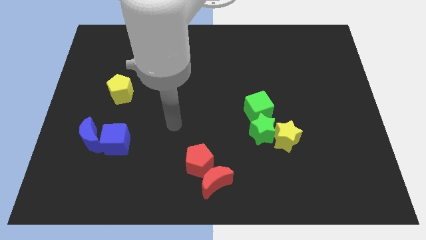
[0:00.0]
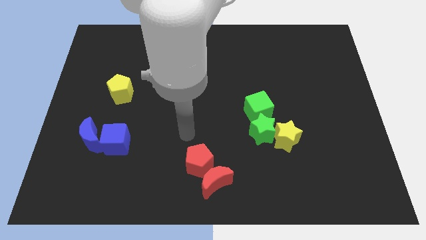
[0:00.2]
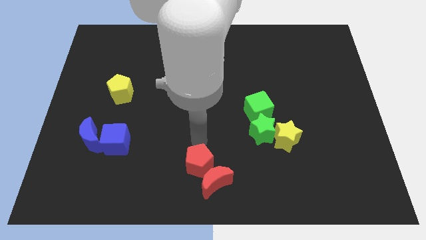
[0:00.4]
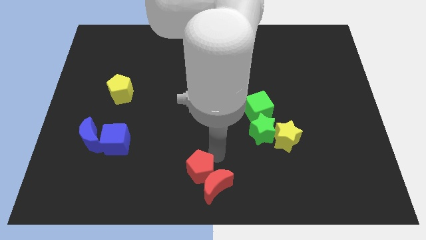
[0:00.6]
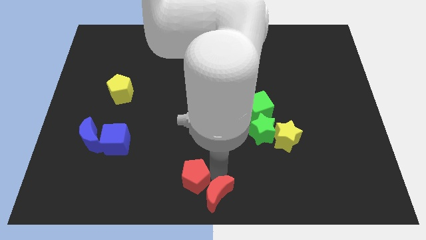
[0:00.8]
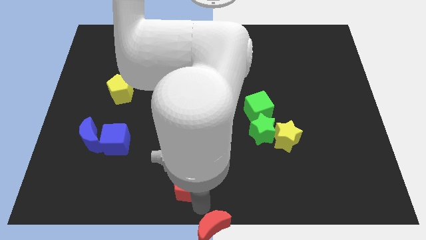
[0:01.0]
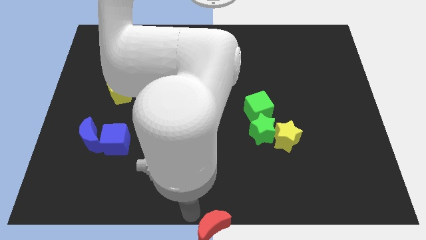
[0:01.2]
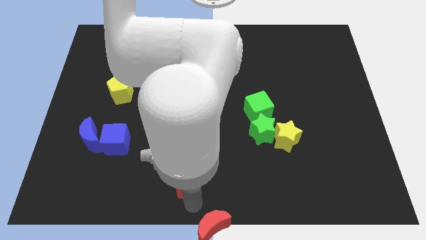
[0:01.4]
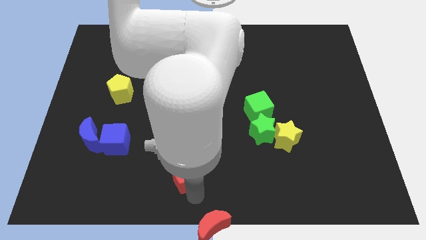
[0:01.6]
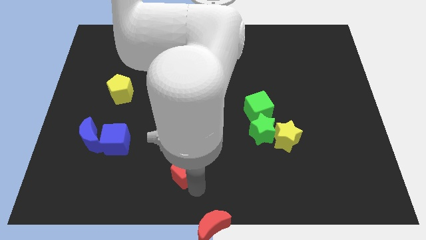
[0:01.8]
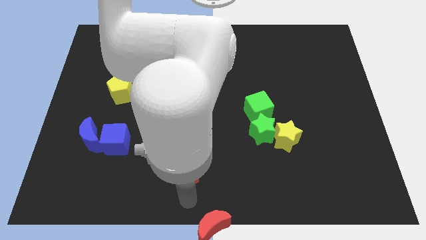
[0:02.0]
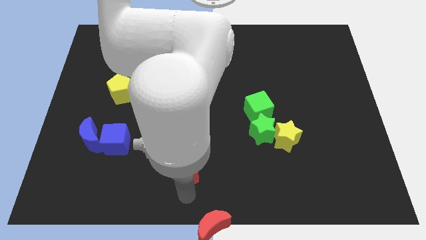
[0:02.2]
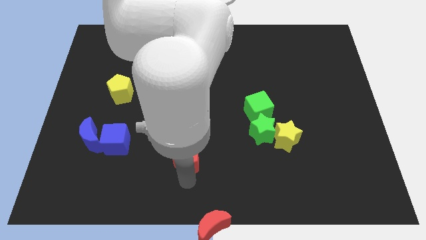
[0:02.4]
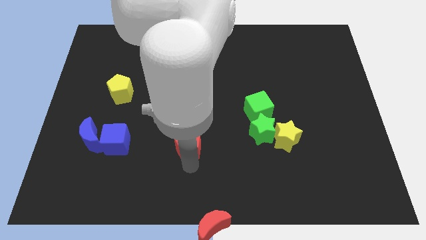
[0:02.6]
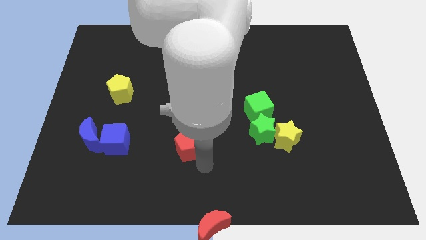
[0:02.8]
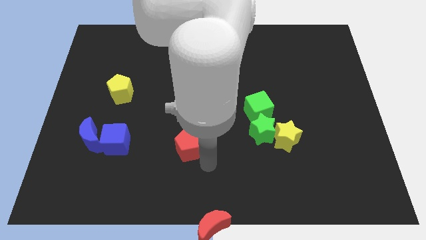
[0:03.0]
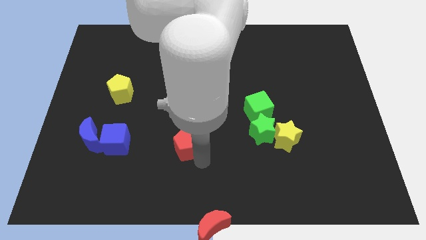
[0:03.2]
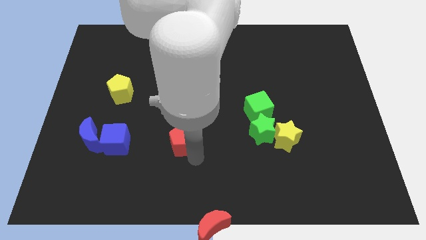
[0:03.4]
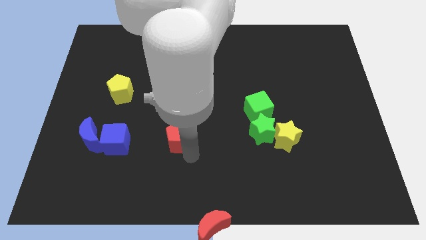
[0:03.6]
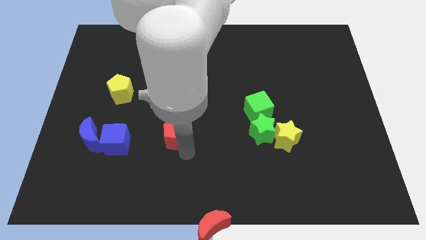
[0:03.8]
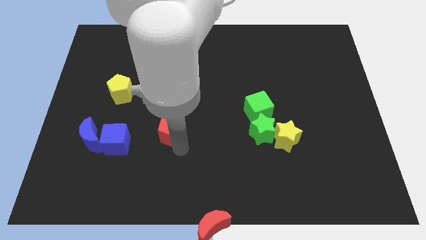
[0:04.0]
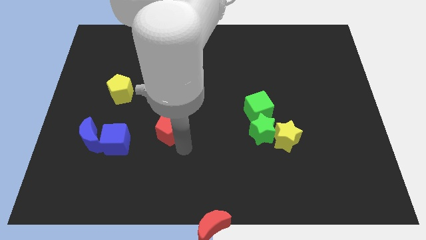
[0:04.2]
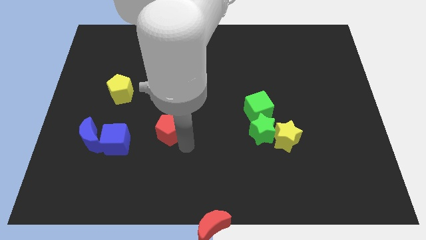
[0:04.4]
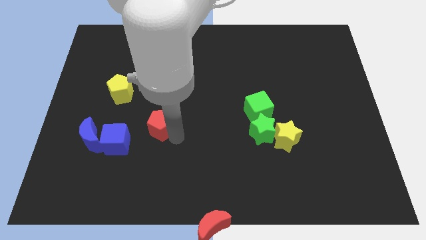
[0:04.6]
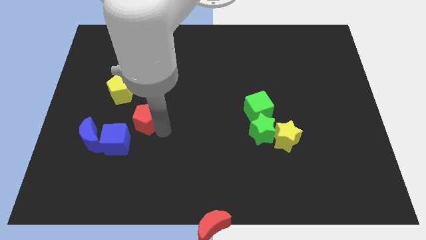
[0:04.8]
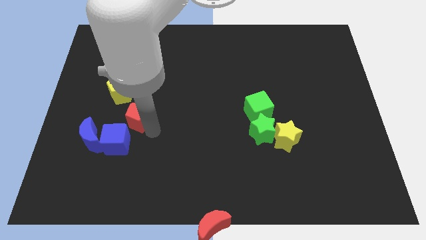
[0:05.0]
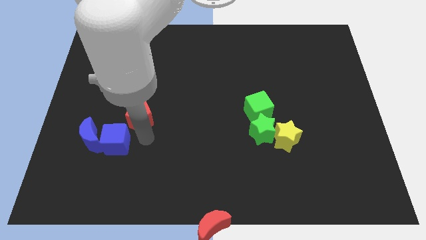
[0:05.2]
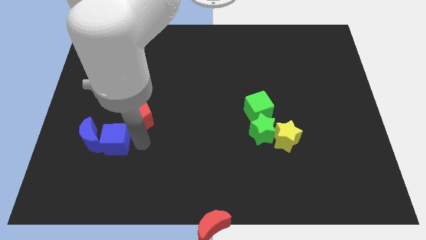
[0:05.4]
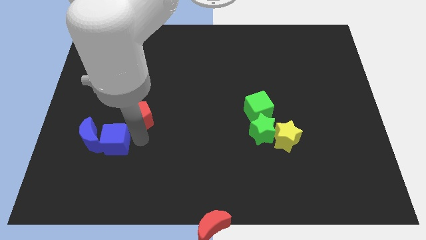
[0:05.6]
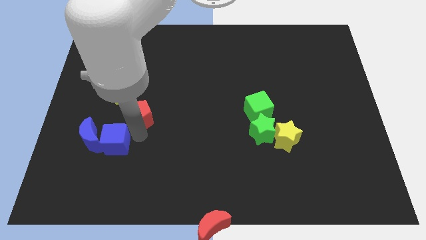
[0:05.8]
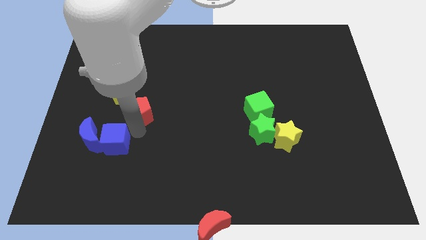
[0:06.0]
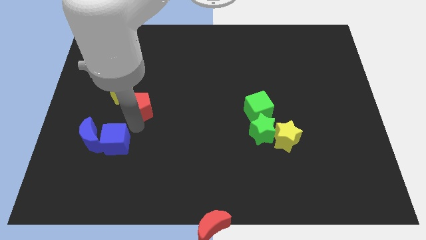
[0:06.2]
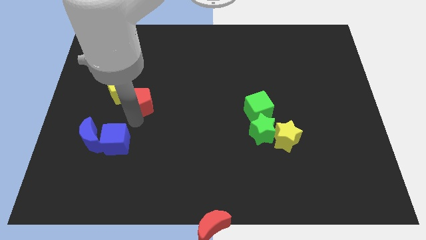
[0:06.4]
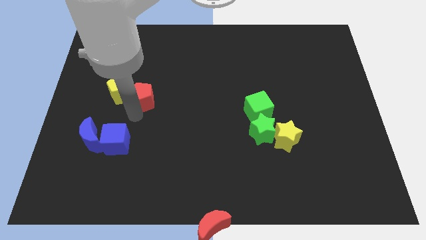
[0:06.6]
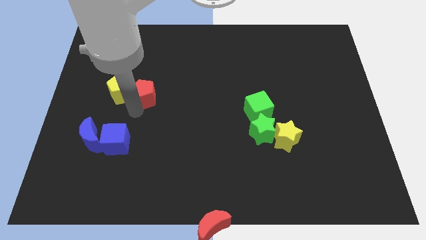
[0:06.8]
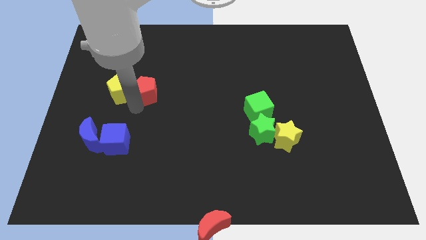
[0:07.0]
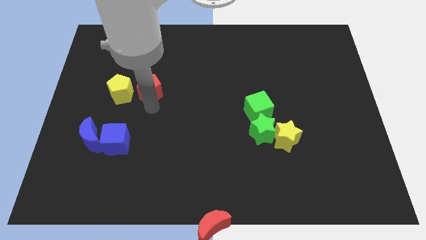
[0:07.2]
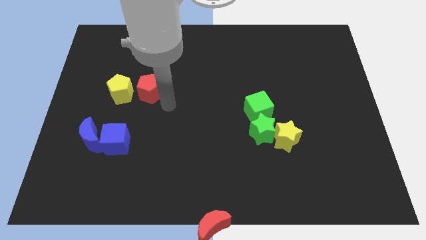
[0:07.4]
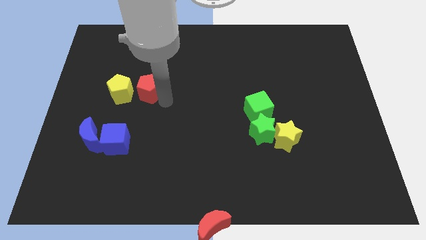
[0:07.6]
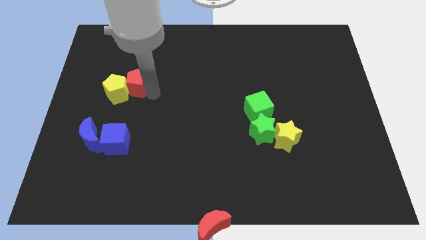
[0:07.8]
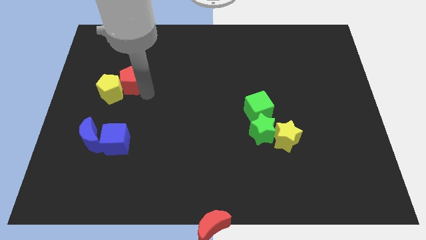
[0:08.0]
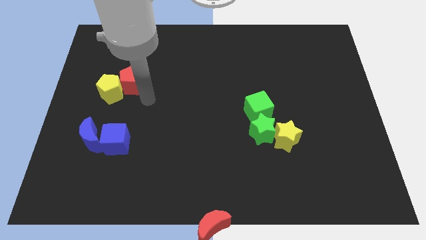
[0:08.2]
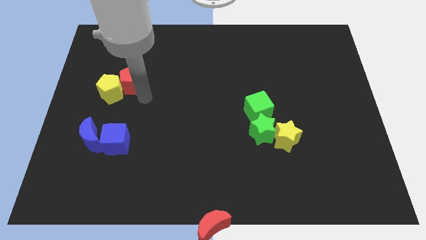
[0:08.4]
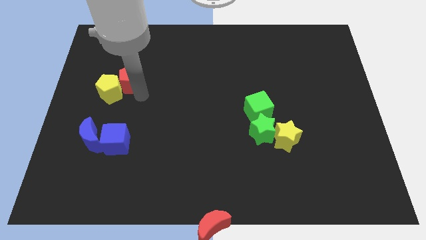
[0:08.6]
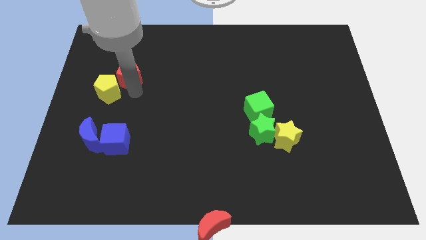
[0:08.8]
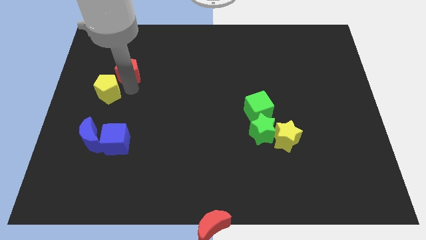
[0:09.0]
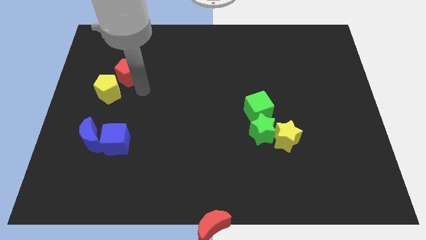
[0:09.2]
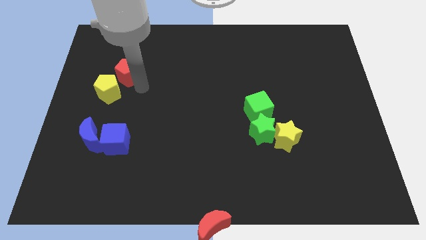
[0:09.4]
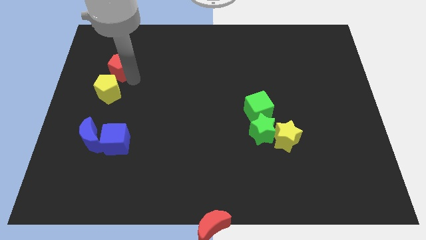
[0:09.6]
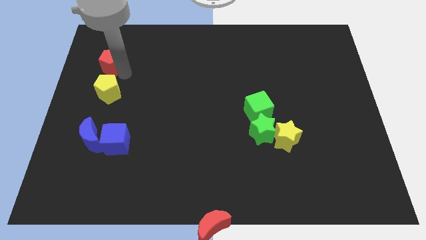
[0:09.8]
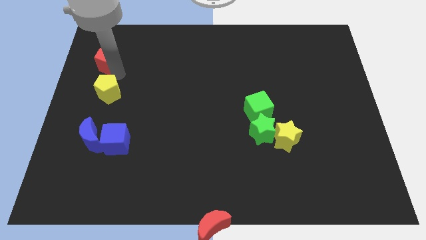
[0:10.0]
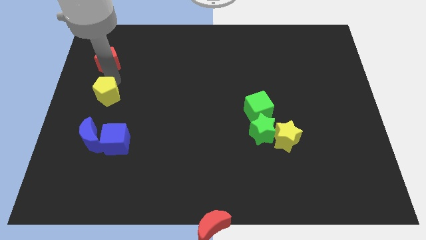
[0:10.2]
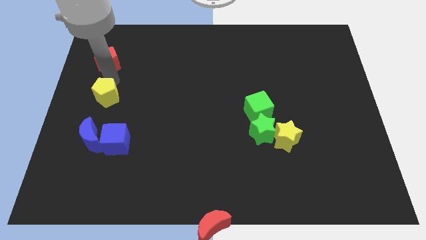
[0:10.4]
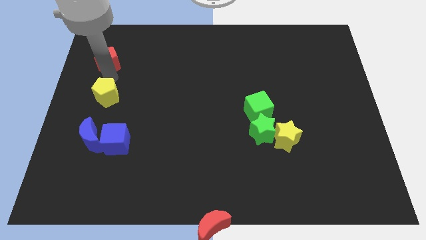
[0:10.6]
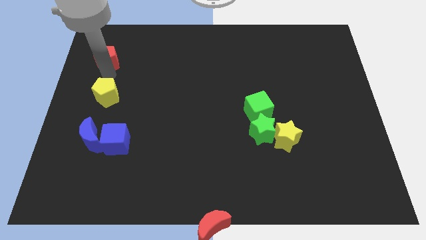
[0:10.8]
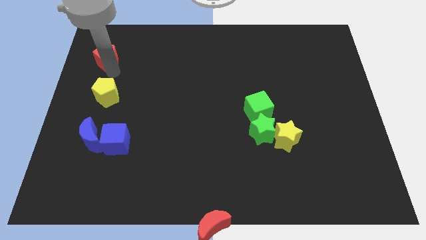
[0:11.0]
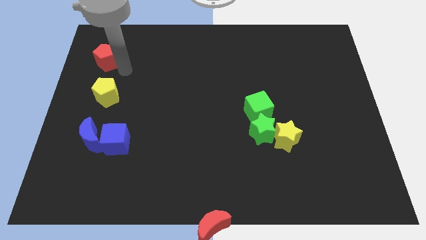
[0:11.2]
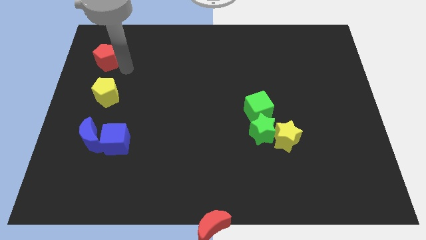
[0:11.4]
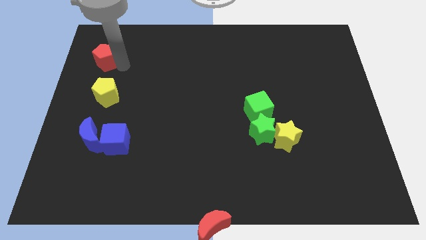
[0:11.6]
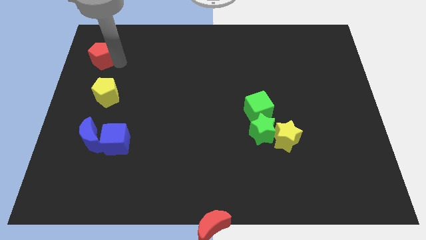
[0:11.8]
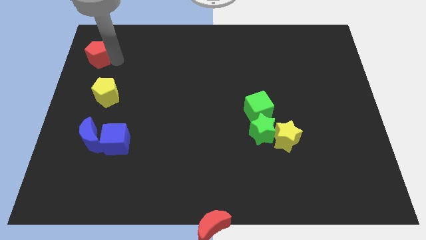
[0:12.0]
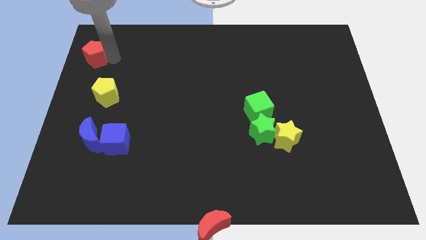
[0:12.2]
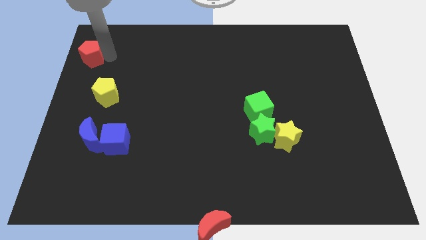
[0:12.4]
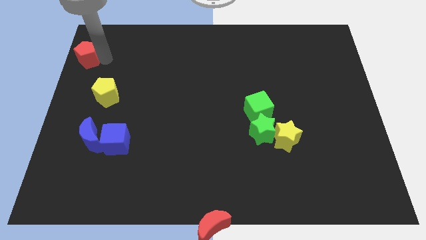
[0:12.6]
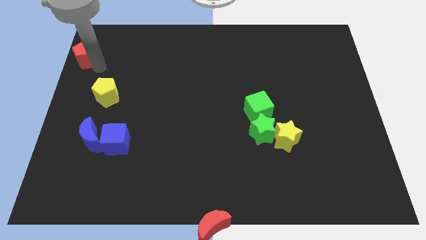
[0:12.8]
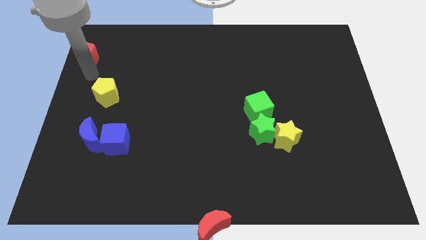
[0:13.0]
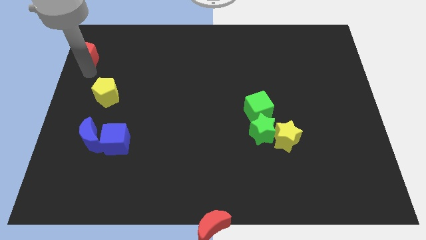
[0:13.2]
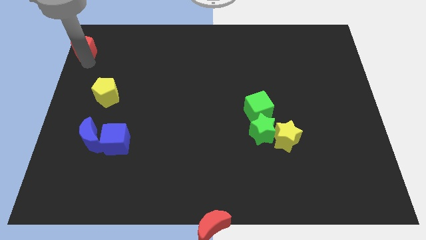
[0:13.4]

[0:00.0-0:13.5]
push the red pentagon to the top left corner
